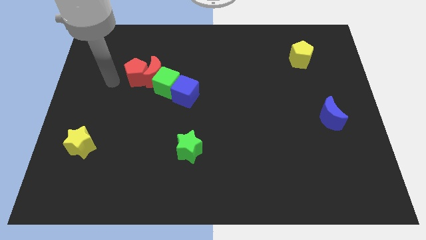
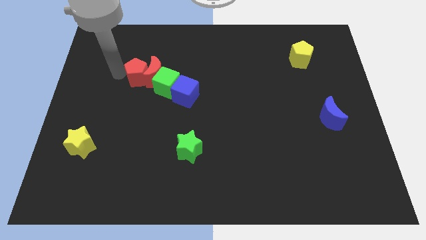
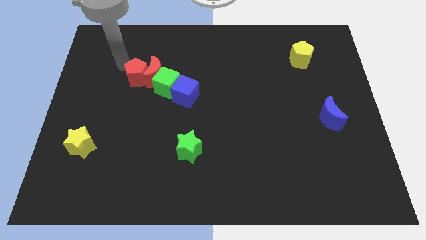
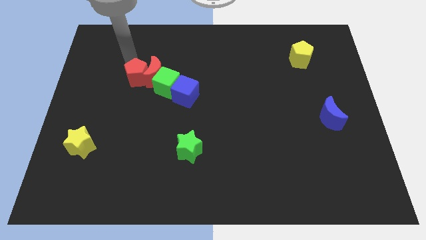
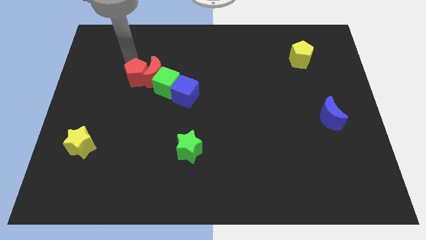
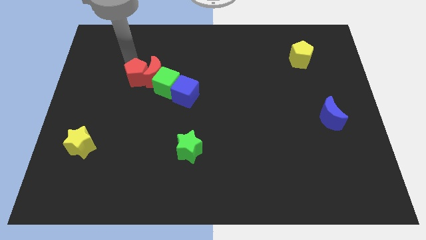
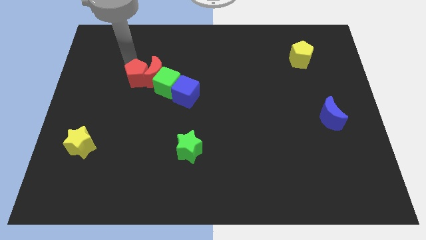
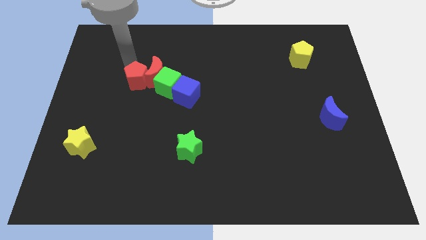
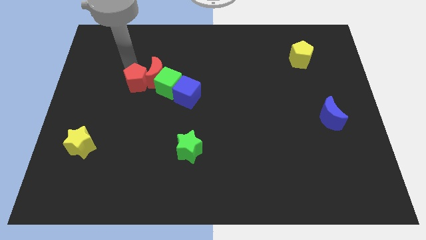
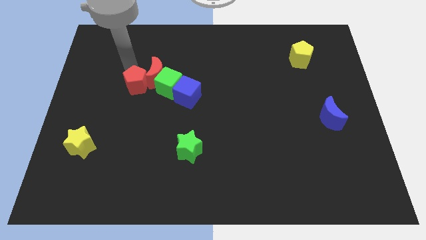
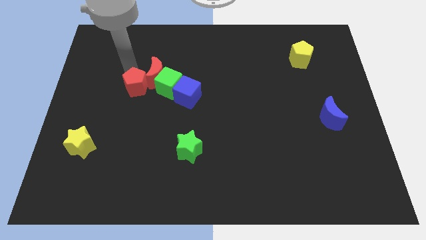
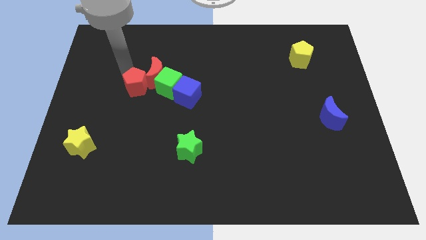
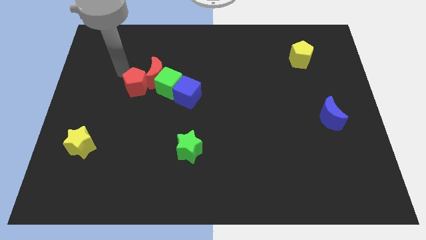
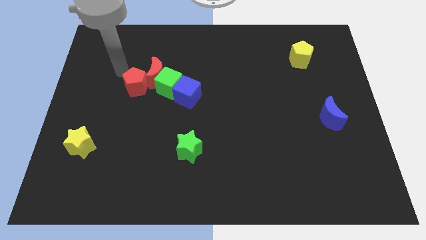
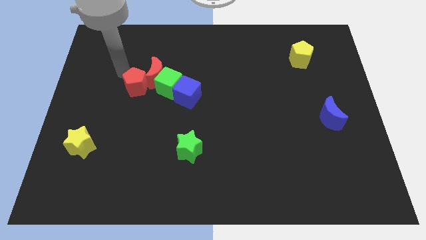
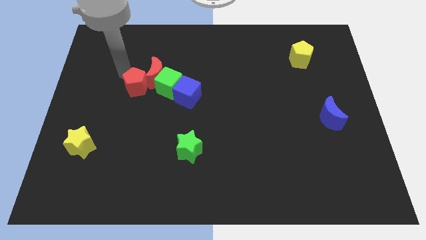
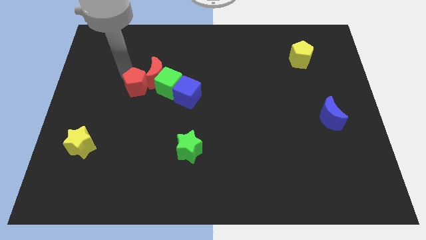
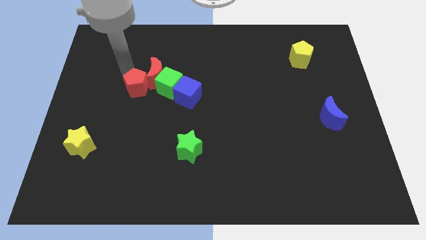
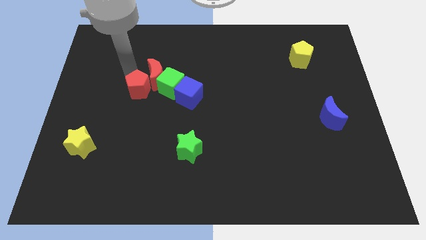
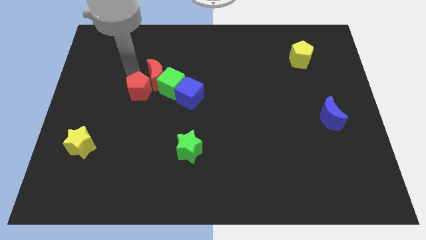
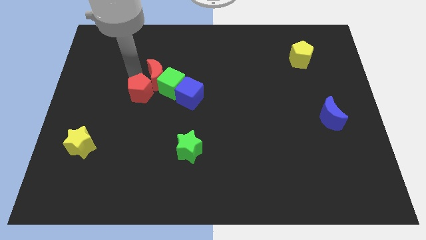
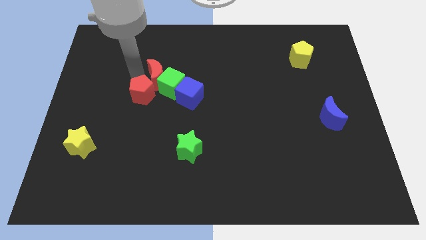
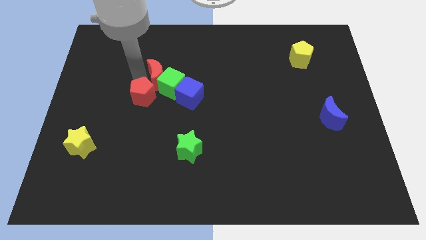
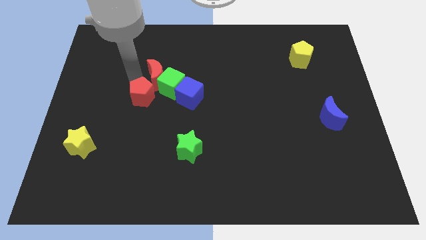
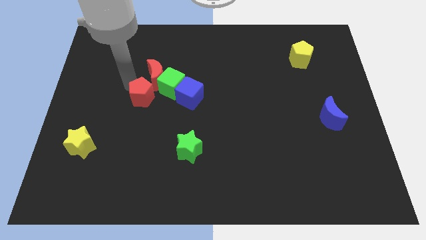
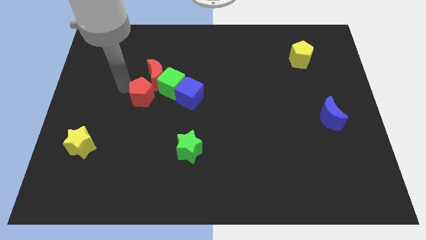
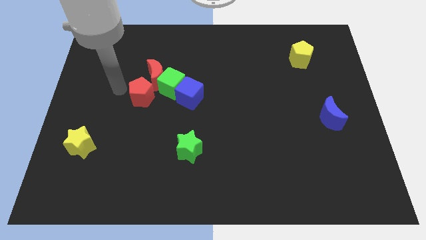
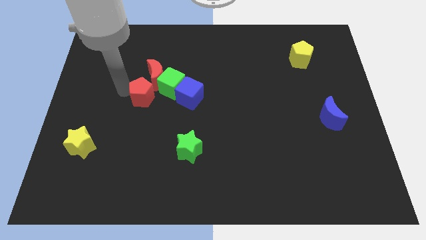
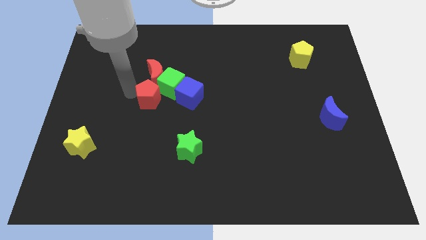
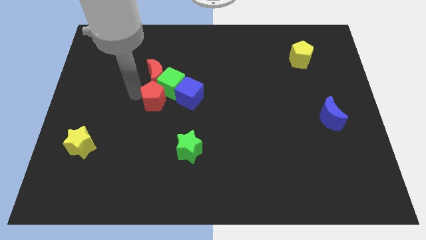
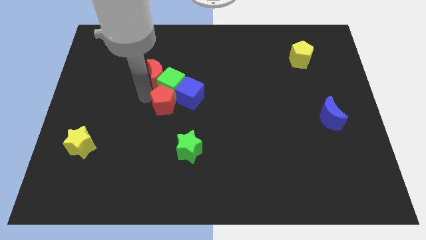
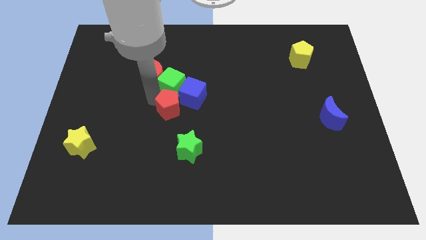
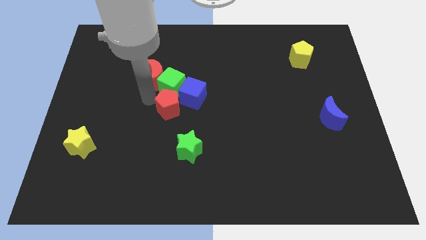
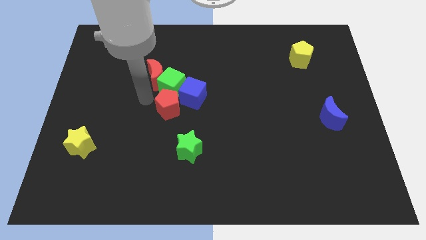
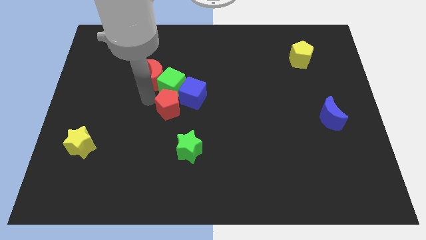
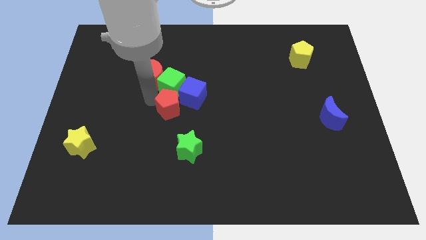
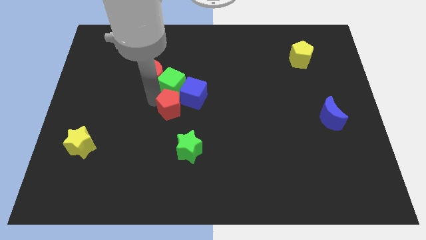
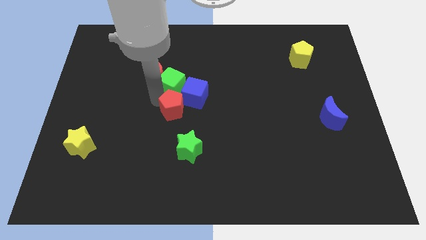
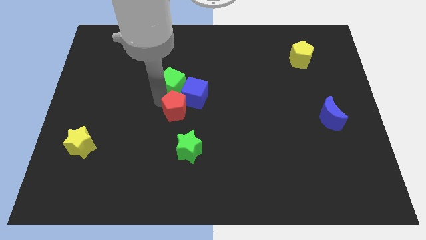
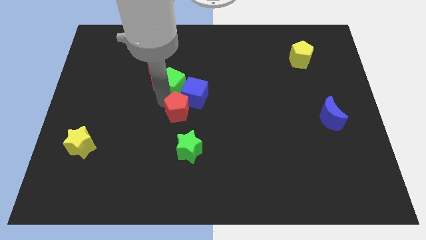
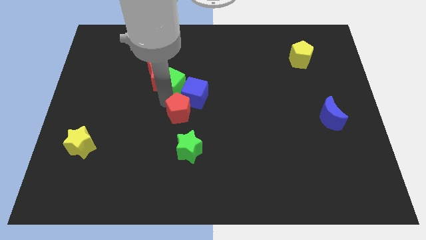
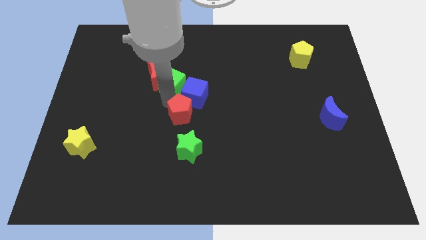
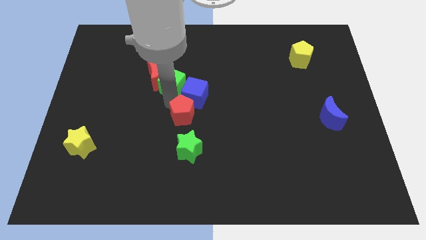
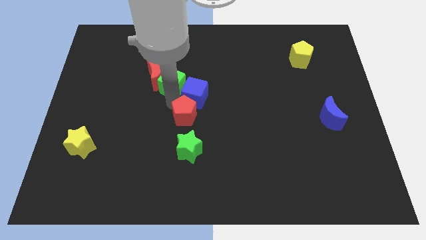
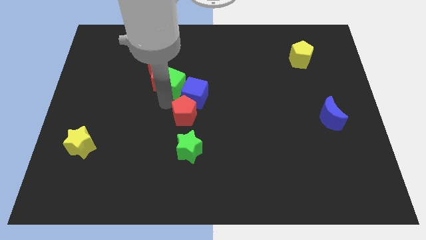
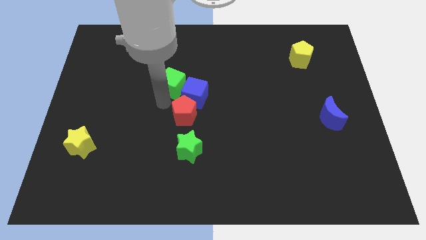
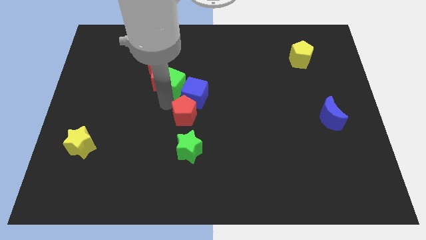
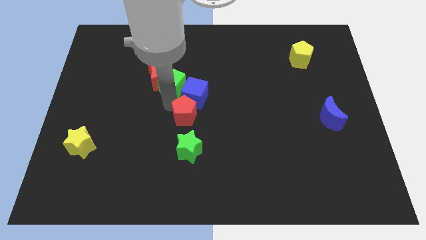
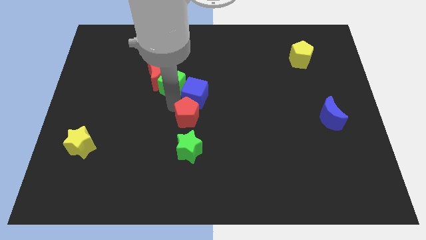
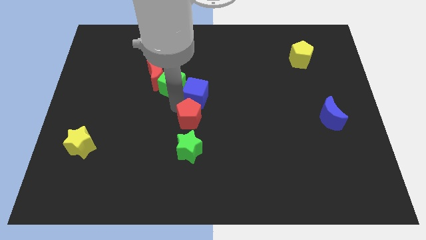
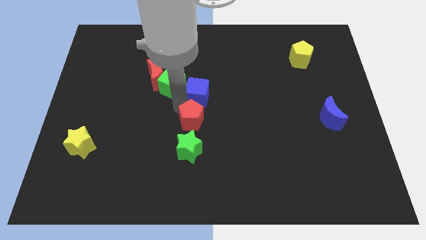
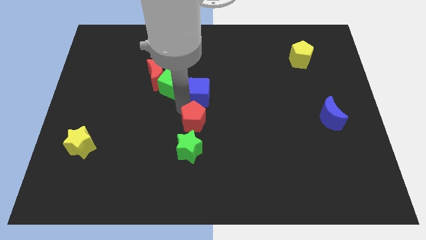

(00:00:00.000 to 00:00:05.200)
put the red pentagon to the top right of the green star

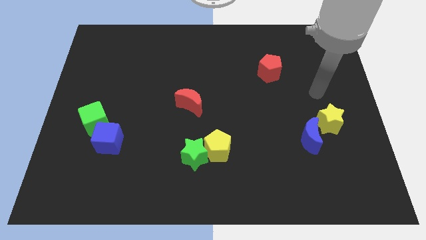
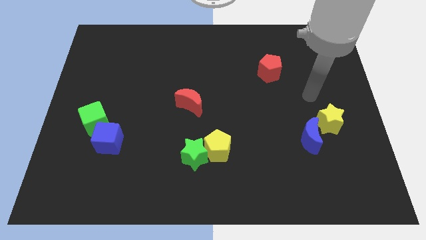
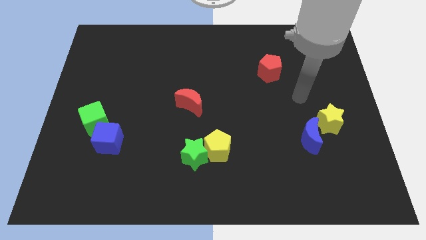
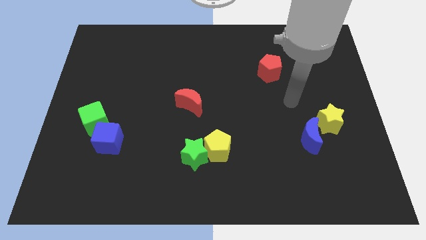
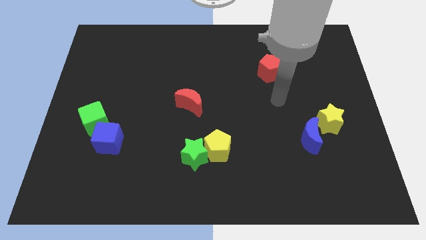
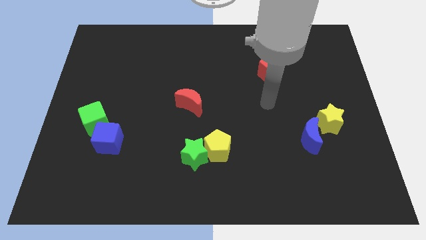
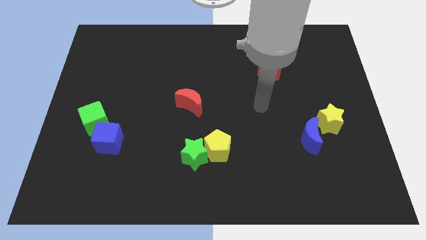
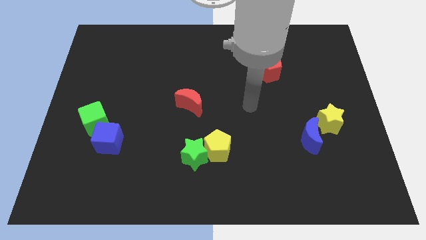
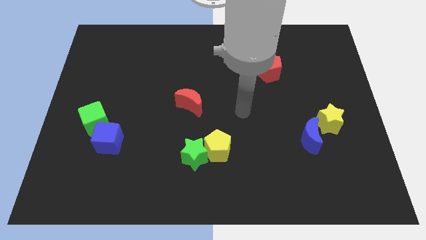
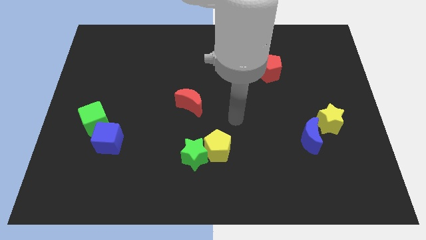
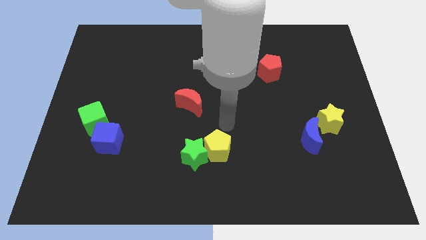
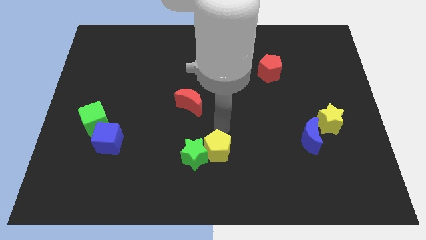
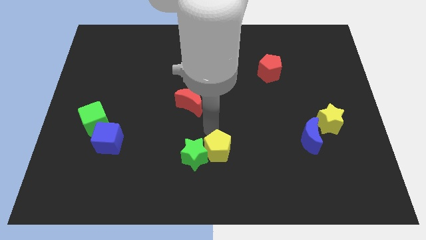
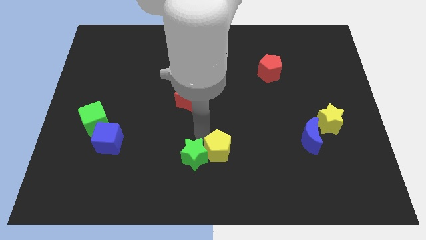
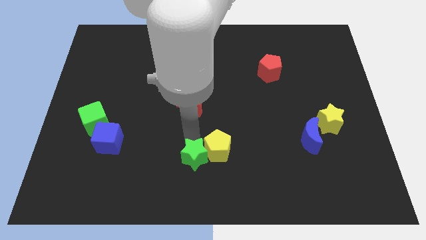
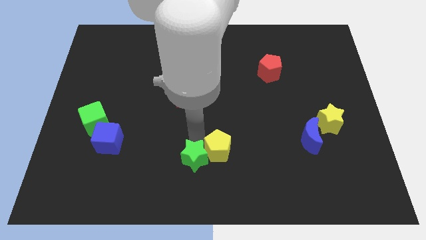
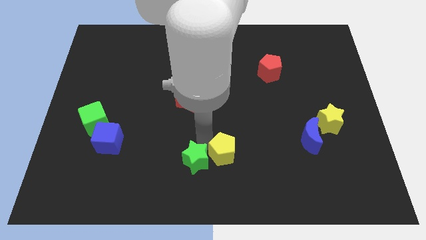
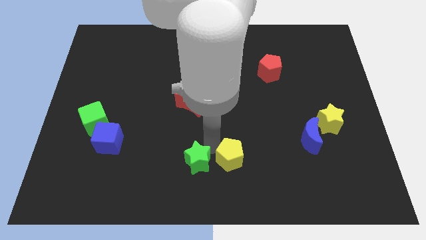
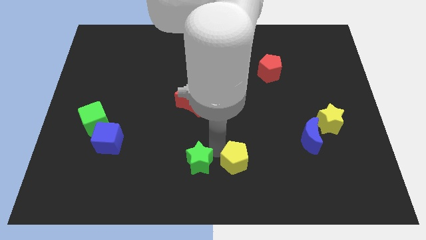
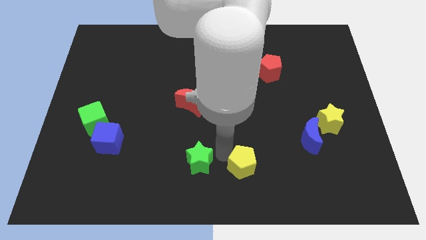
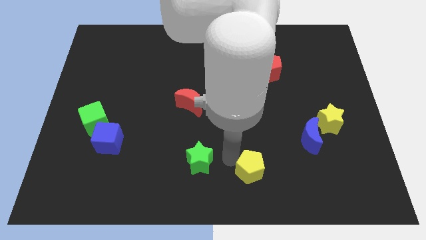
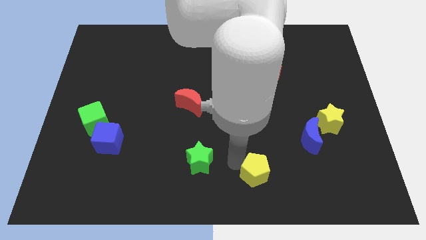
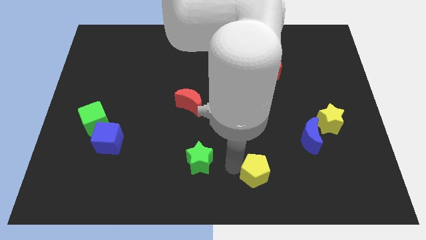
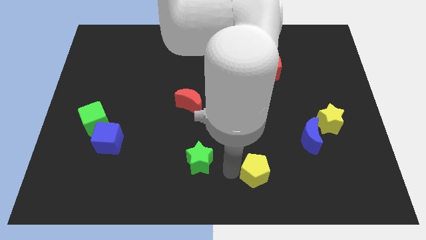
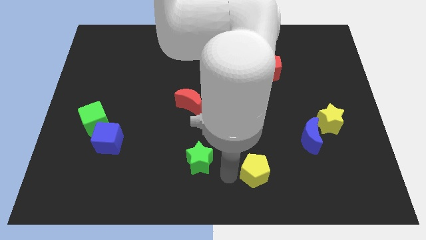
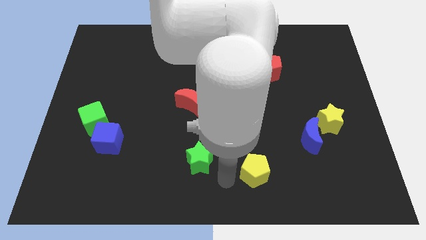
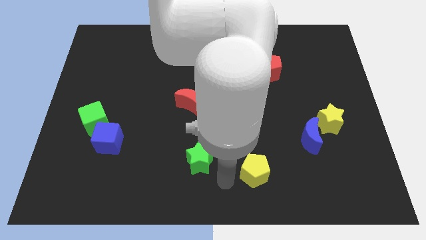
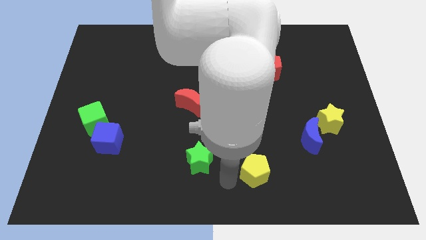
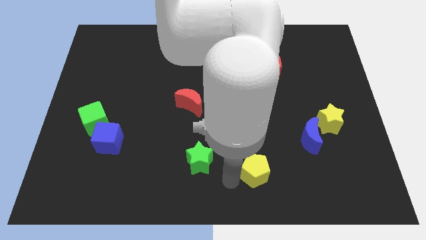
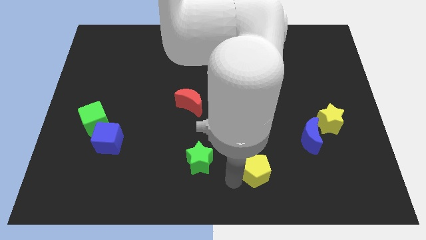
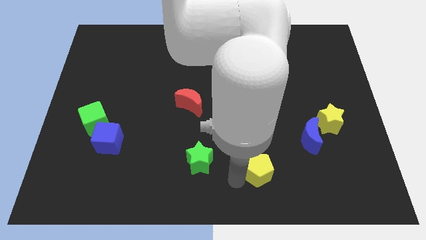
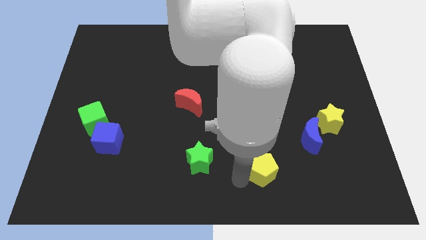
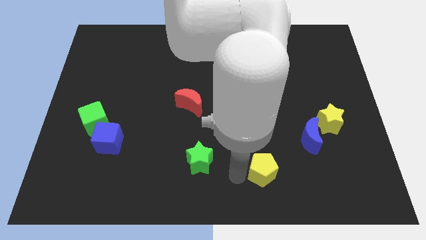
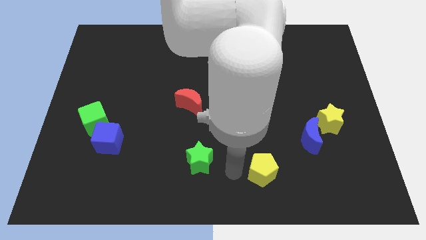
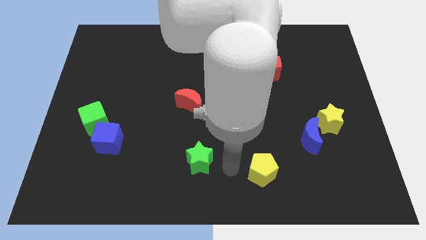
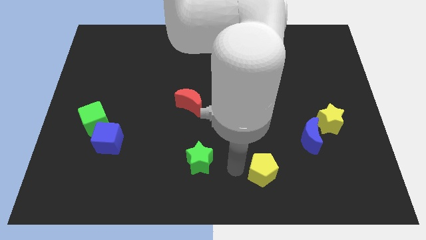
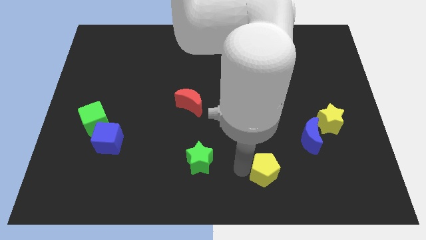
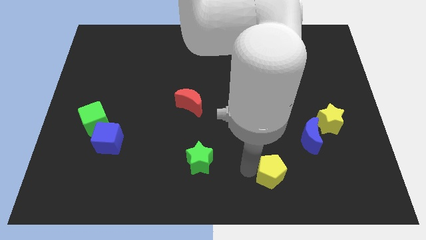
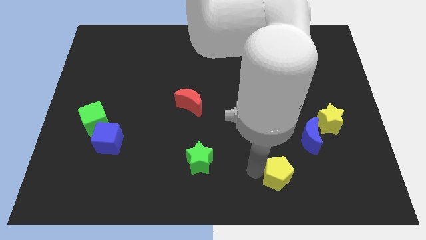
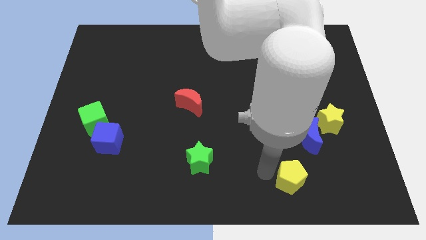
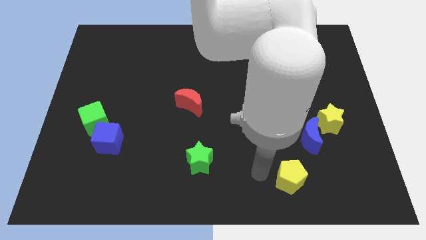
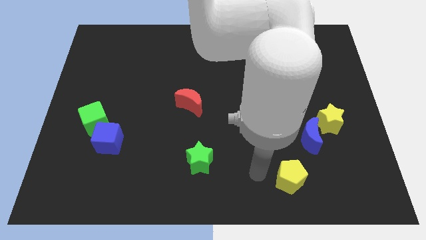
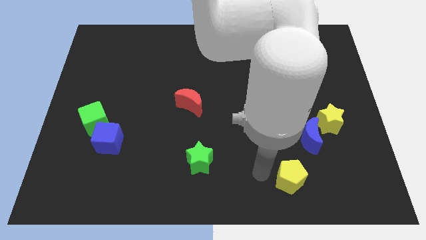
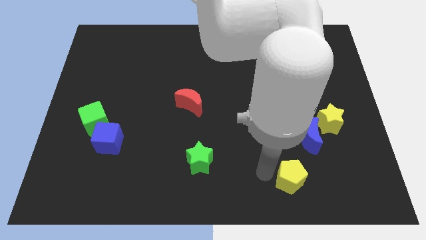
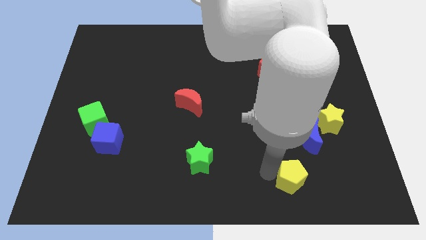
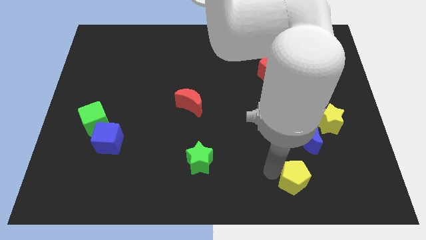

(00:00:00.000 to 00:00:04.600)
put the yellow pentagon to the bottom side of the blue moon
